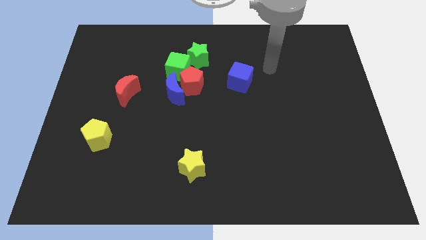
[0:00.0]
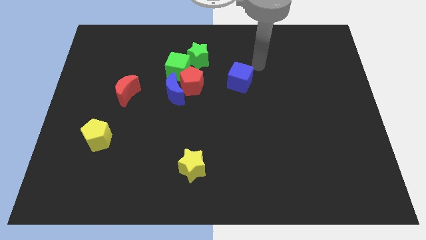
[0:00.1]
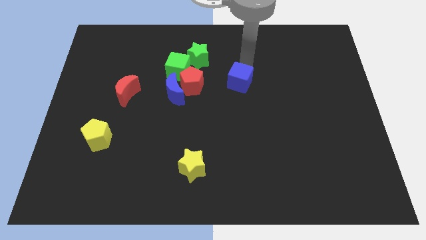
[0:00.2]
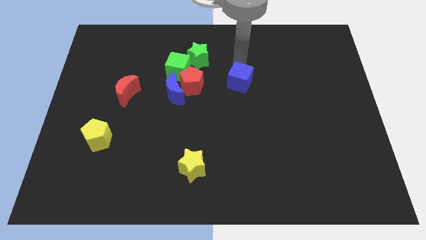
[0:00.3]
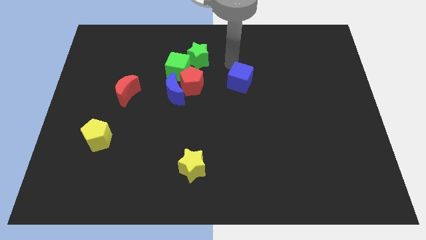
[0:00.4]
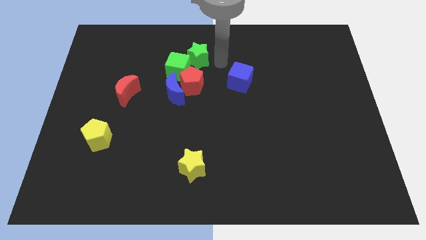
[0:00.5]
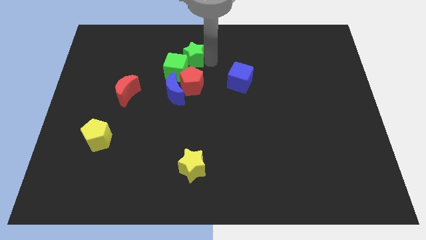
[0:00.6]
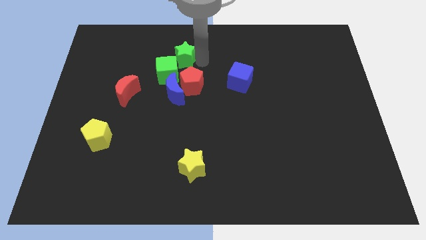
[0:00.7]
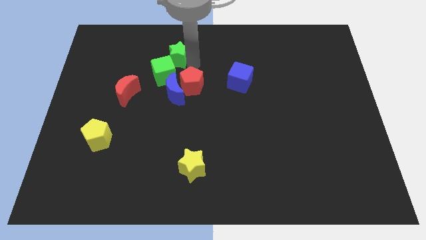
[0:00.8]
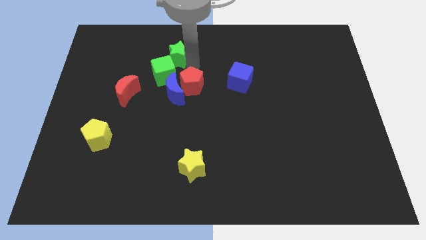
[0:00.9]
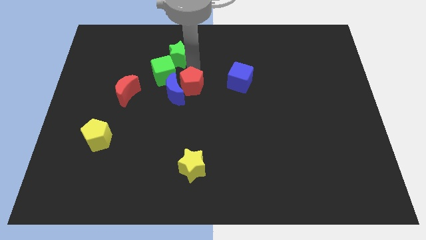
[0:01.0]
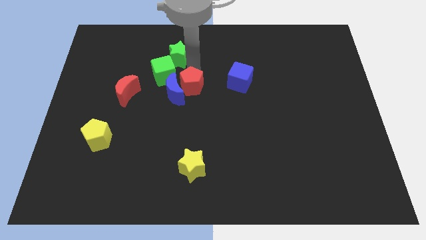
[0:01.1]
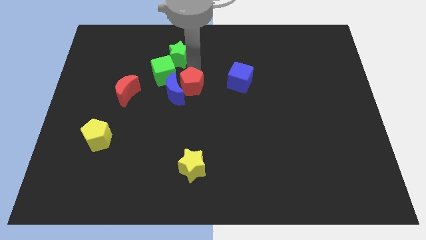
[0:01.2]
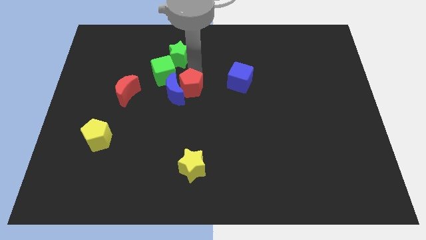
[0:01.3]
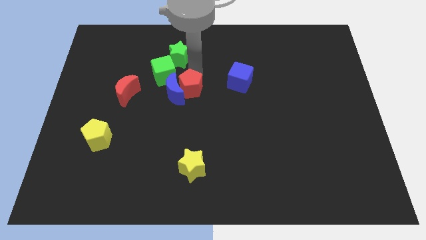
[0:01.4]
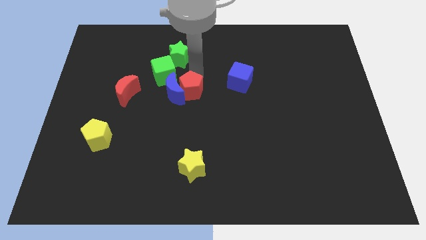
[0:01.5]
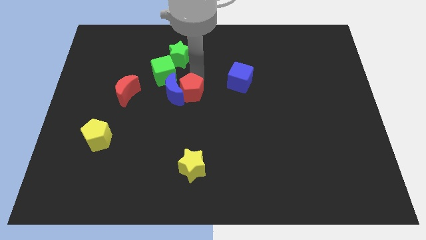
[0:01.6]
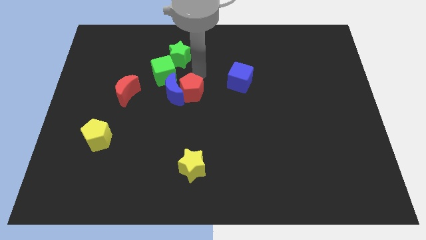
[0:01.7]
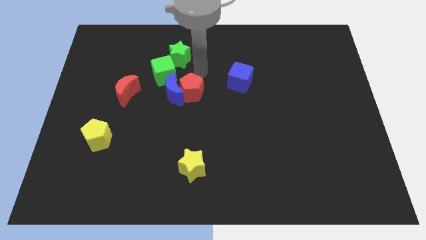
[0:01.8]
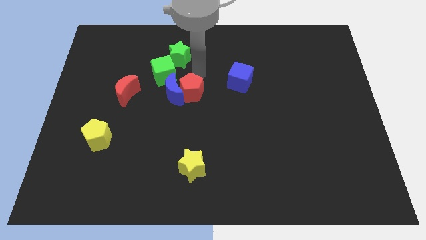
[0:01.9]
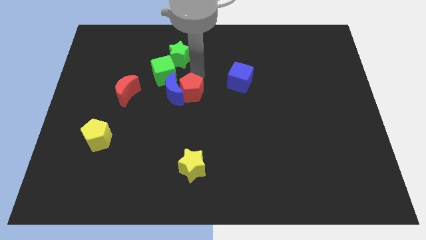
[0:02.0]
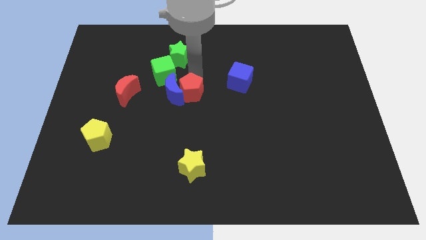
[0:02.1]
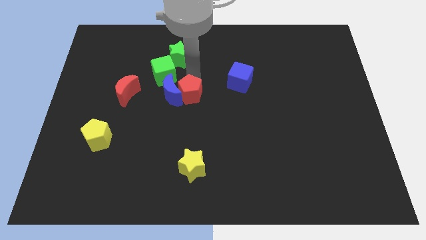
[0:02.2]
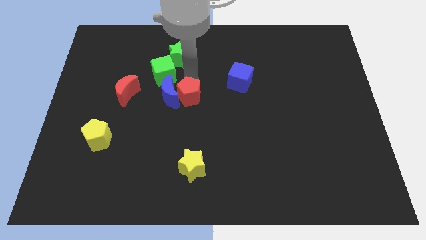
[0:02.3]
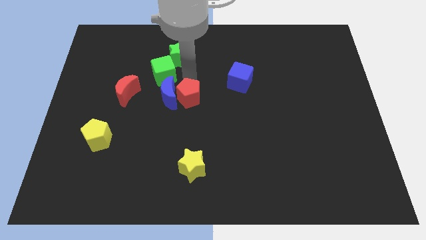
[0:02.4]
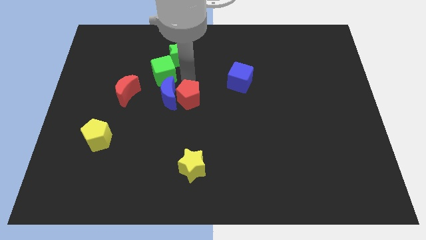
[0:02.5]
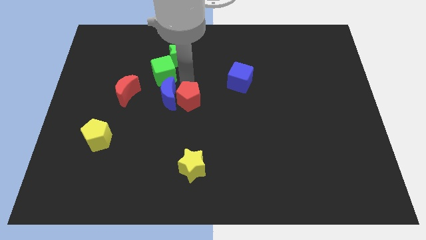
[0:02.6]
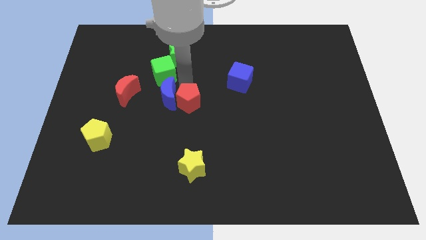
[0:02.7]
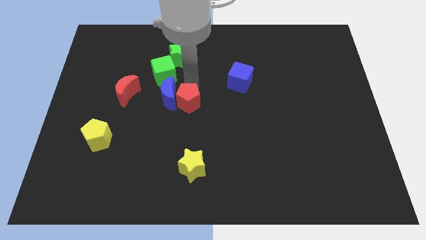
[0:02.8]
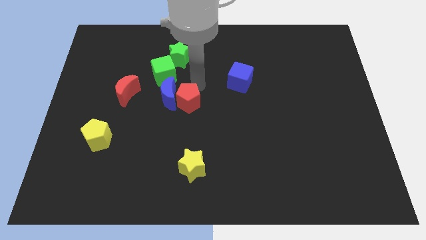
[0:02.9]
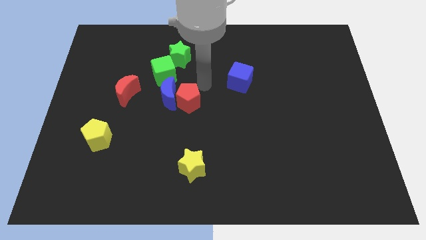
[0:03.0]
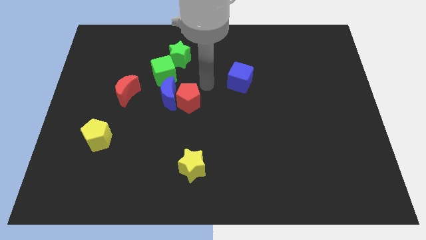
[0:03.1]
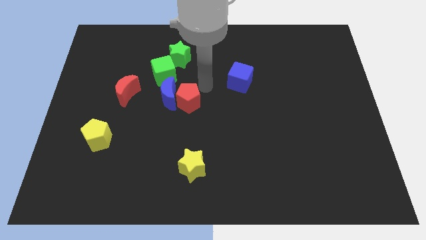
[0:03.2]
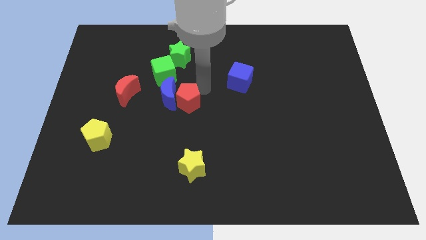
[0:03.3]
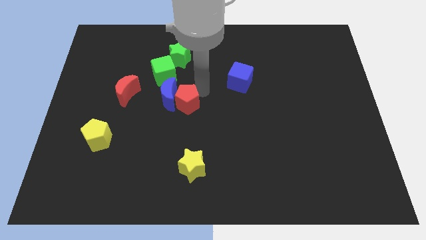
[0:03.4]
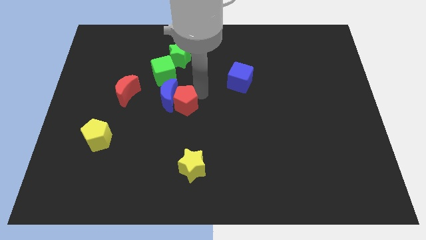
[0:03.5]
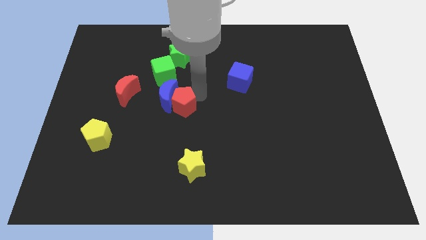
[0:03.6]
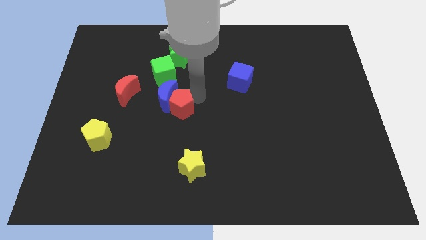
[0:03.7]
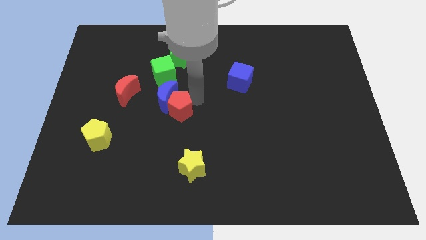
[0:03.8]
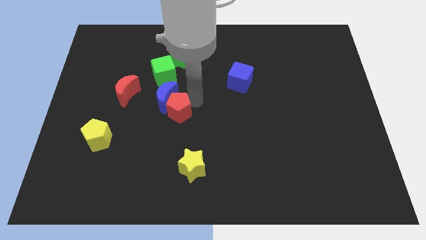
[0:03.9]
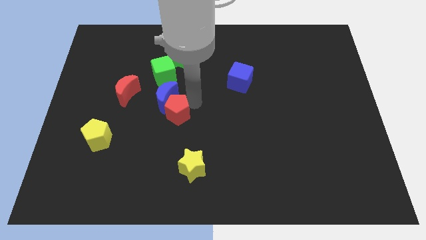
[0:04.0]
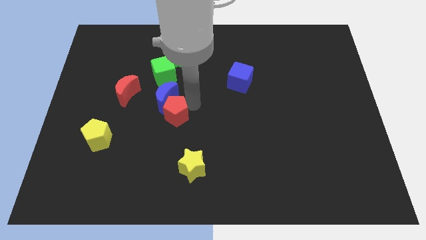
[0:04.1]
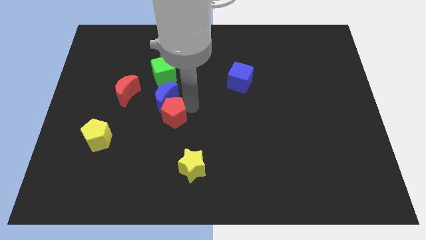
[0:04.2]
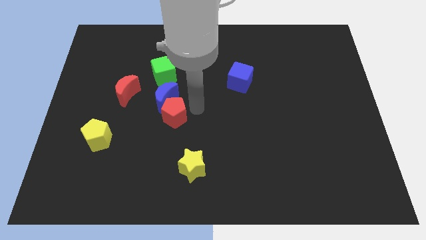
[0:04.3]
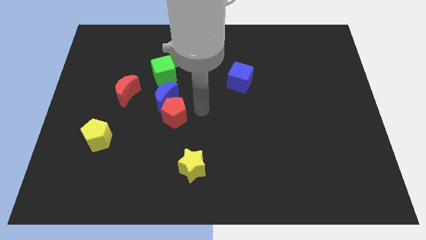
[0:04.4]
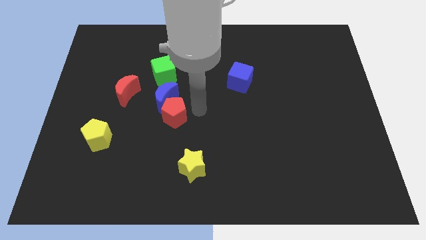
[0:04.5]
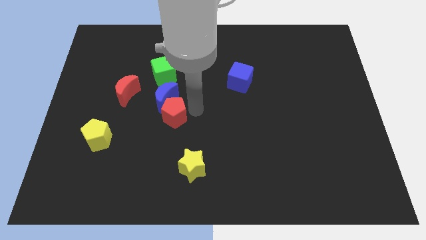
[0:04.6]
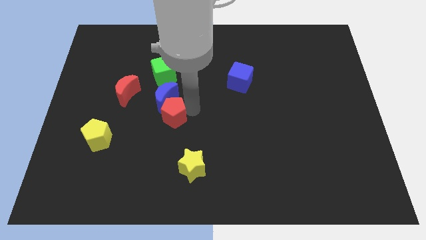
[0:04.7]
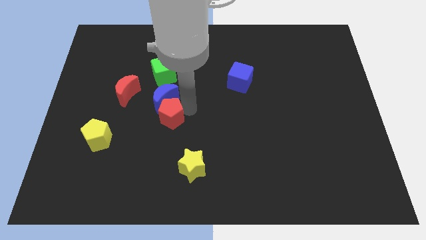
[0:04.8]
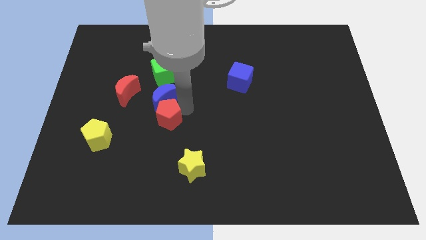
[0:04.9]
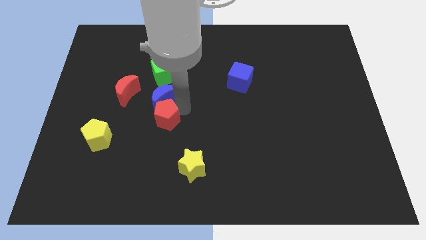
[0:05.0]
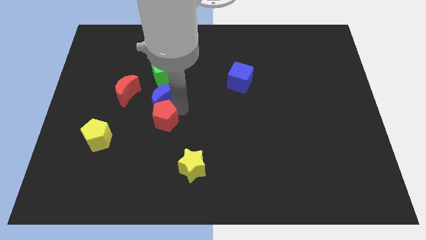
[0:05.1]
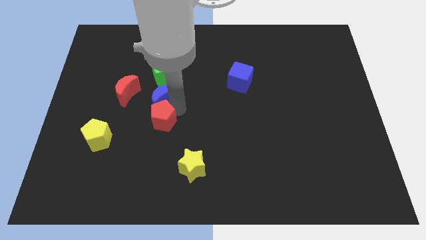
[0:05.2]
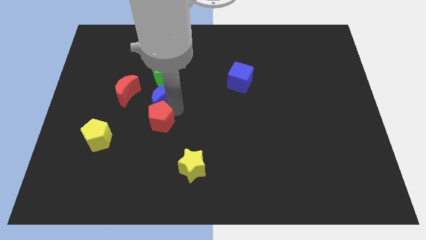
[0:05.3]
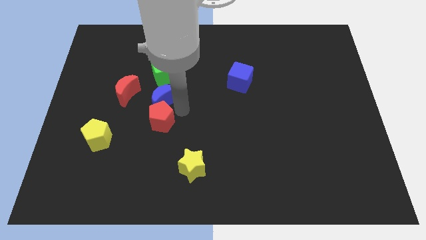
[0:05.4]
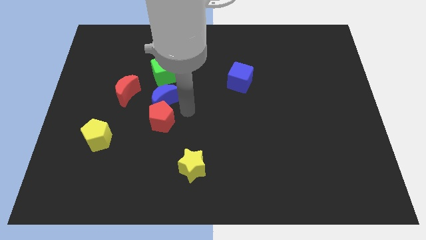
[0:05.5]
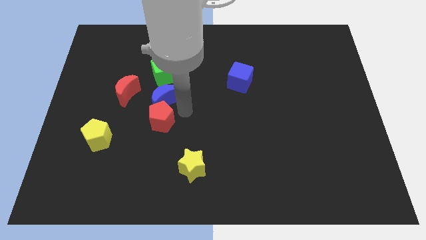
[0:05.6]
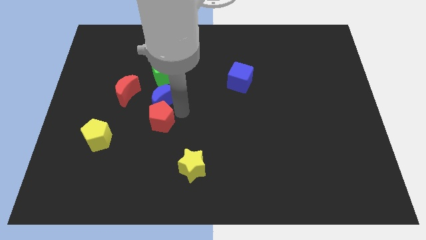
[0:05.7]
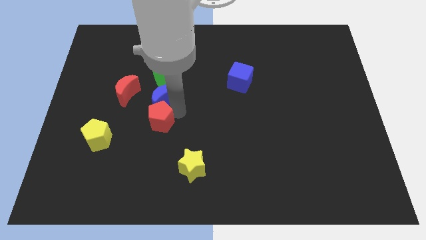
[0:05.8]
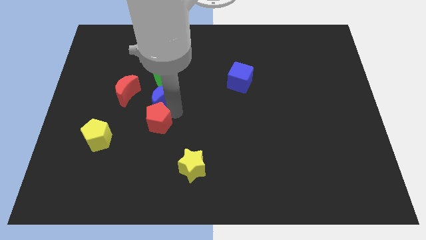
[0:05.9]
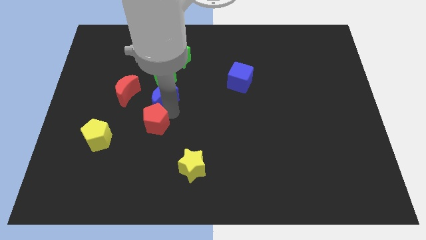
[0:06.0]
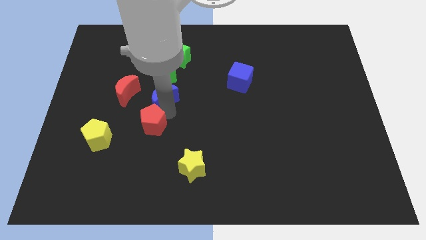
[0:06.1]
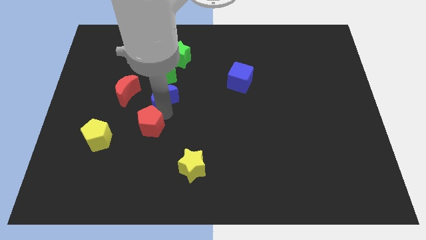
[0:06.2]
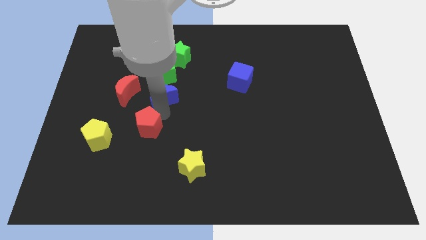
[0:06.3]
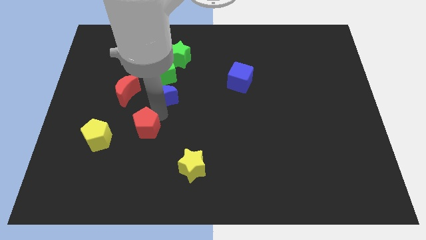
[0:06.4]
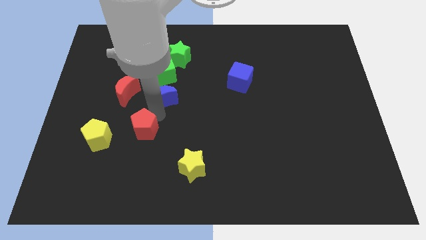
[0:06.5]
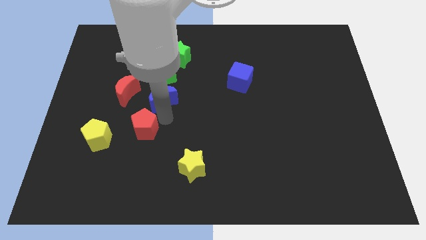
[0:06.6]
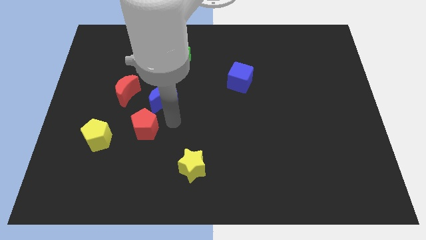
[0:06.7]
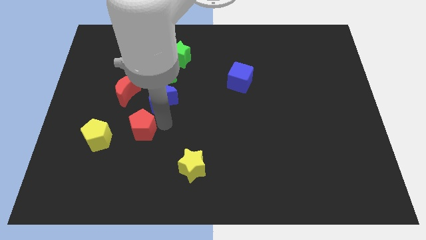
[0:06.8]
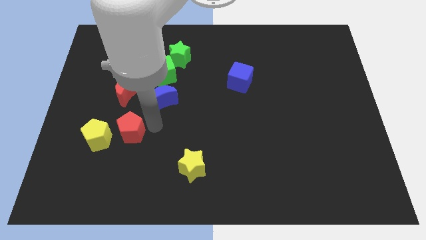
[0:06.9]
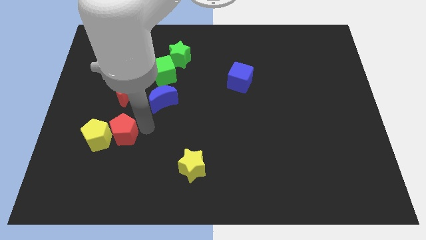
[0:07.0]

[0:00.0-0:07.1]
move the red pentagon next to the yellow pentagon

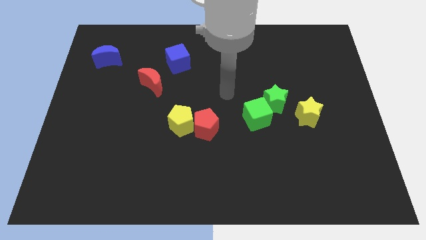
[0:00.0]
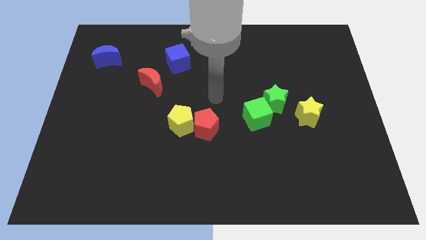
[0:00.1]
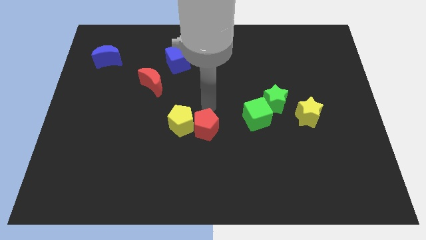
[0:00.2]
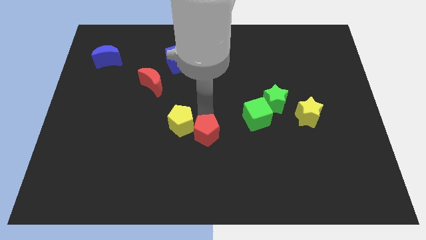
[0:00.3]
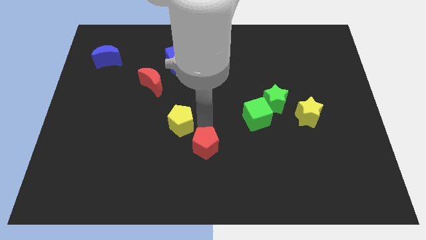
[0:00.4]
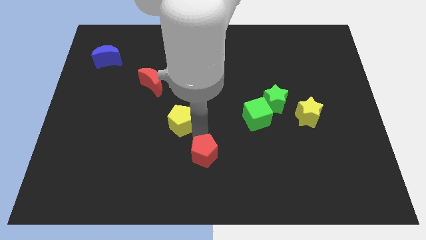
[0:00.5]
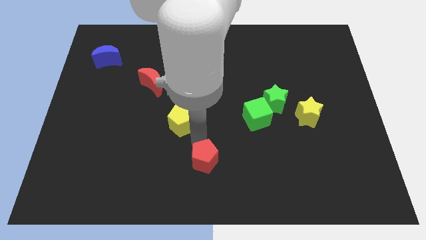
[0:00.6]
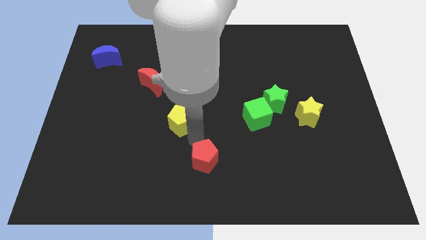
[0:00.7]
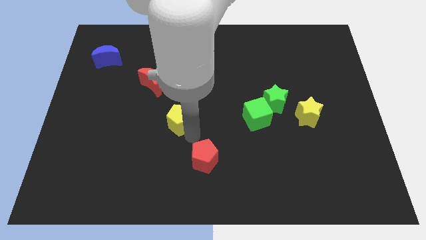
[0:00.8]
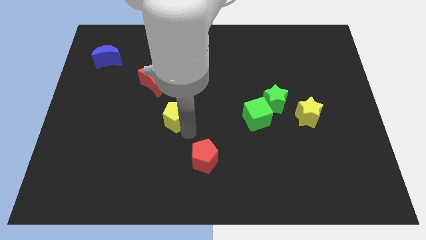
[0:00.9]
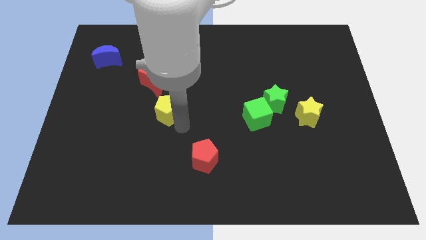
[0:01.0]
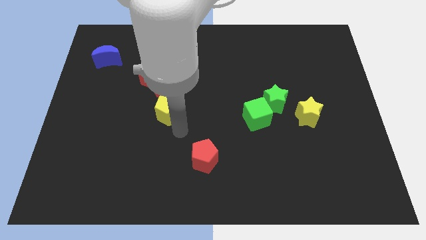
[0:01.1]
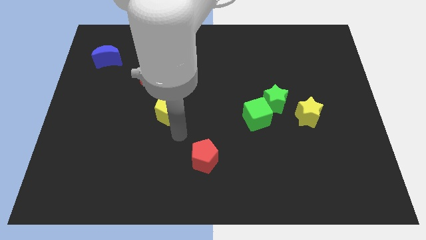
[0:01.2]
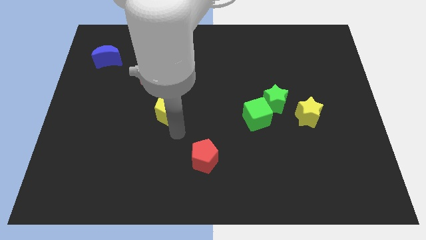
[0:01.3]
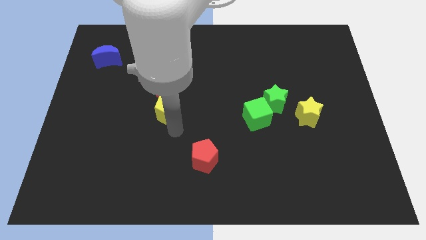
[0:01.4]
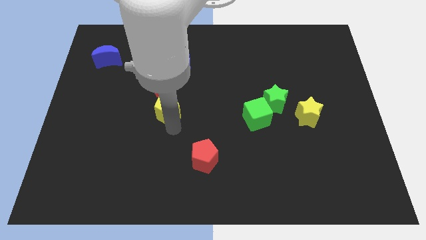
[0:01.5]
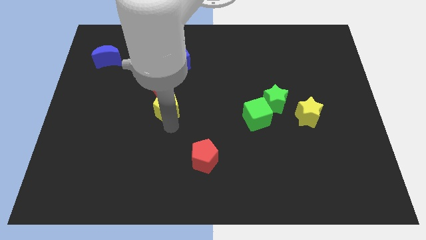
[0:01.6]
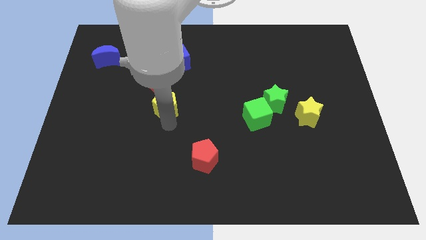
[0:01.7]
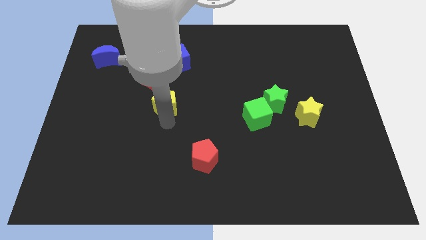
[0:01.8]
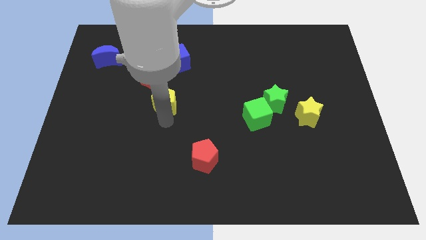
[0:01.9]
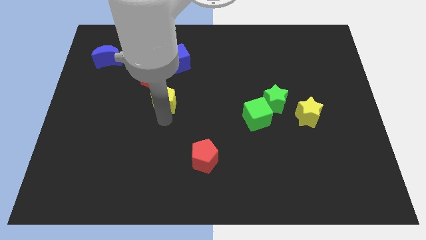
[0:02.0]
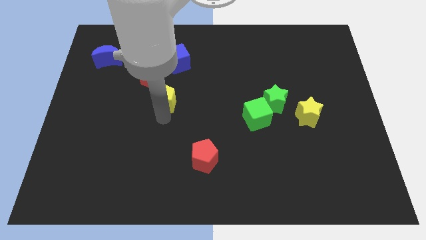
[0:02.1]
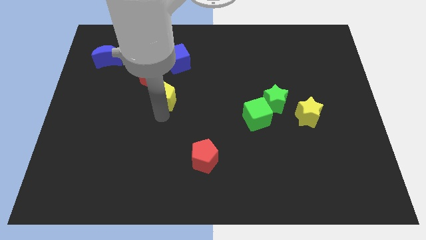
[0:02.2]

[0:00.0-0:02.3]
put the yellow pentagon to the red moon
